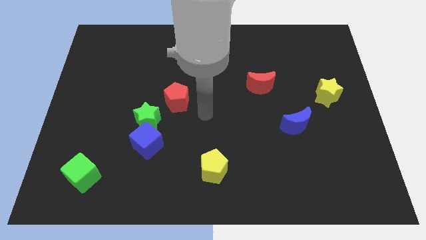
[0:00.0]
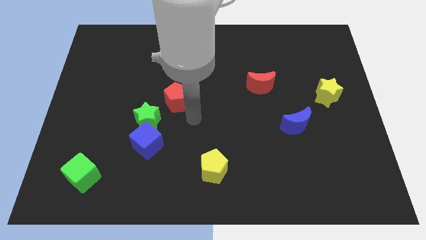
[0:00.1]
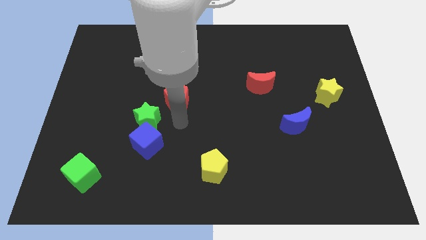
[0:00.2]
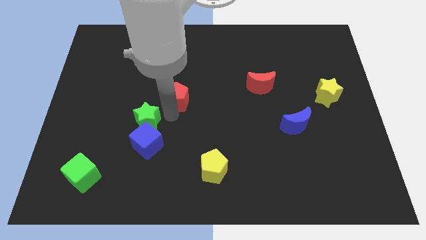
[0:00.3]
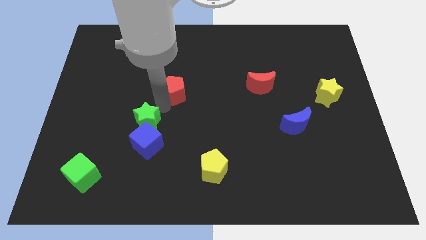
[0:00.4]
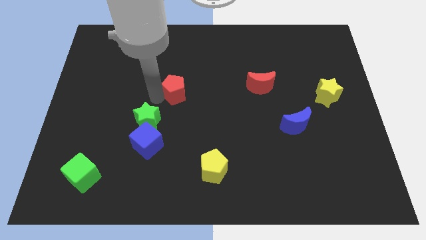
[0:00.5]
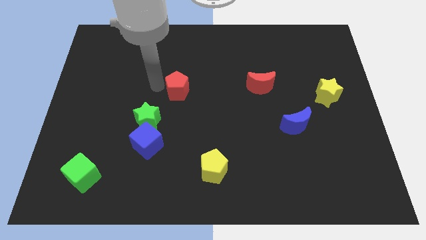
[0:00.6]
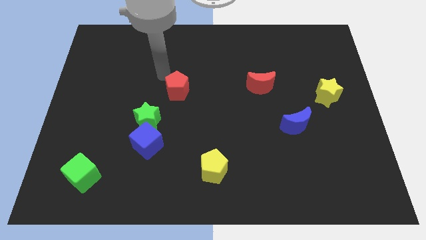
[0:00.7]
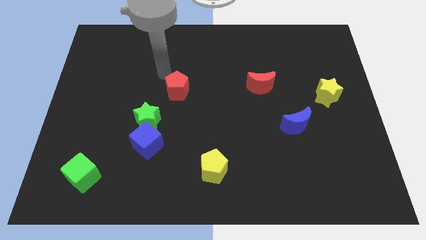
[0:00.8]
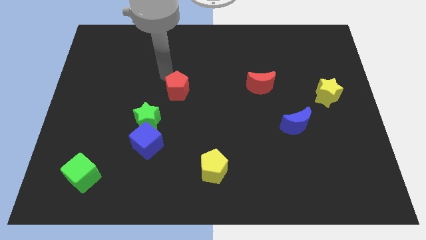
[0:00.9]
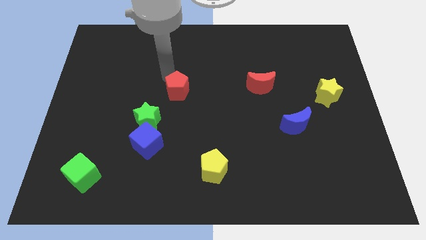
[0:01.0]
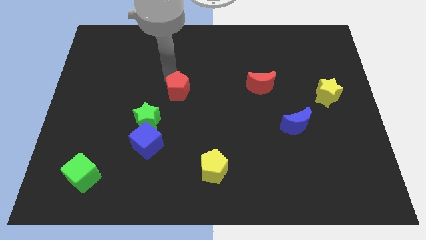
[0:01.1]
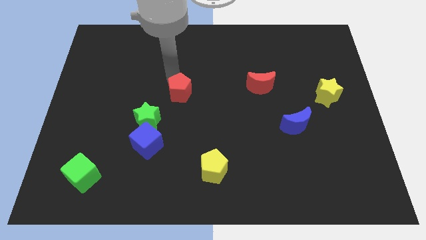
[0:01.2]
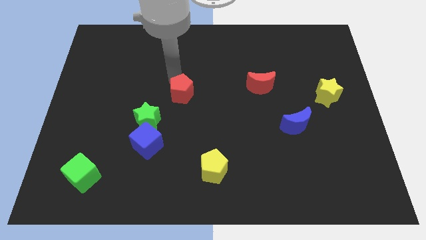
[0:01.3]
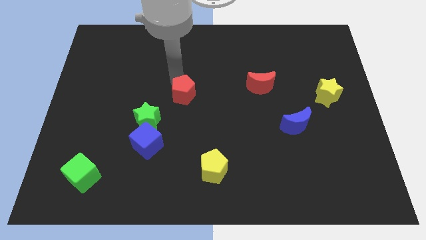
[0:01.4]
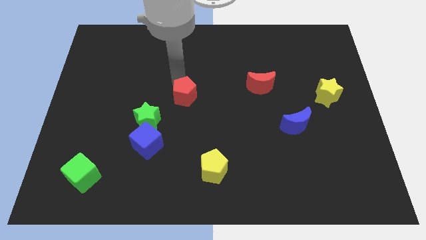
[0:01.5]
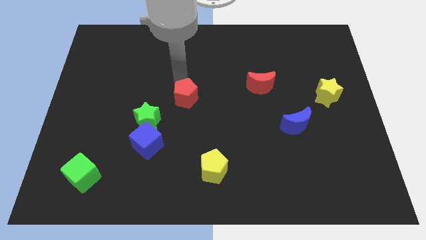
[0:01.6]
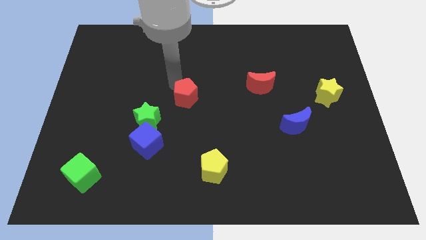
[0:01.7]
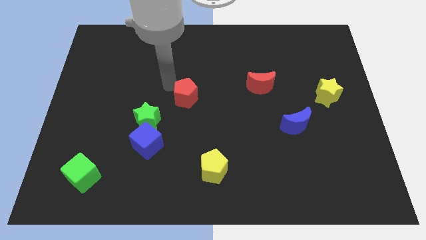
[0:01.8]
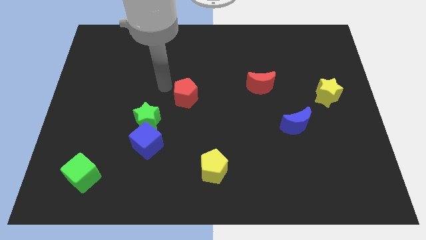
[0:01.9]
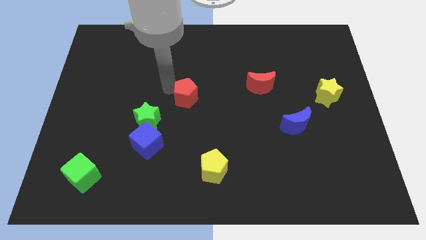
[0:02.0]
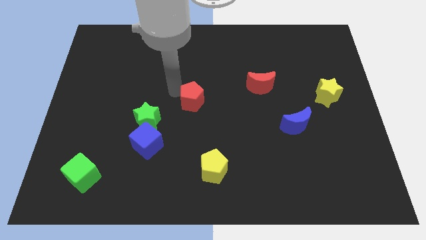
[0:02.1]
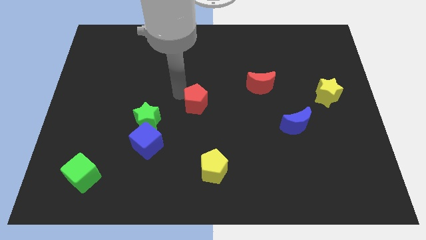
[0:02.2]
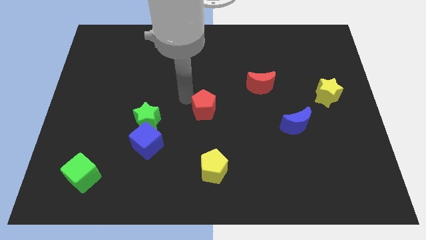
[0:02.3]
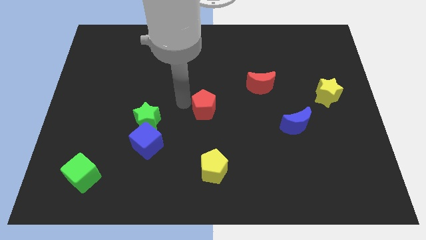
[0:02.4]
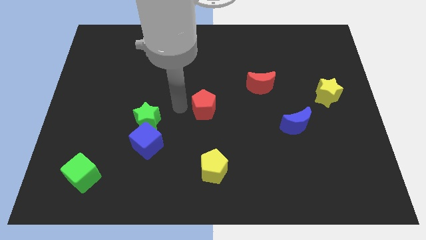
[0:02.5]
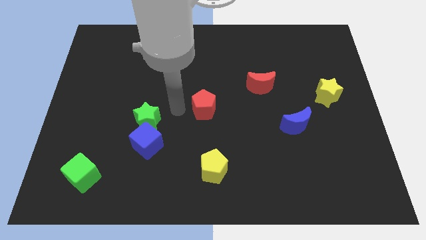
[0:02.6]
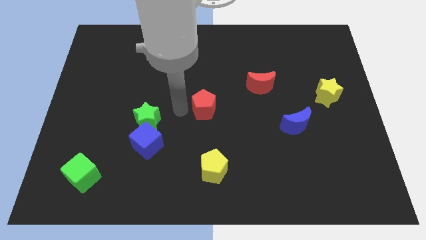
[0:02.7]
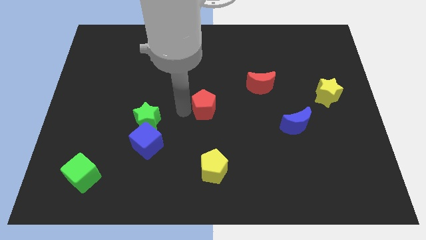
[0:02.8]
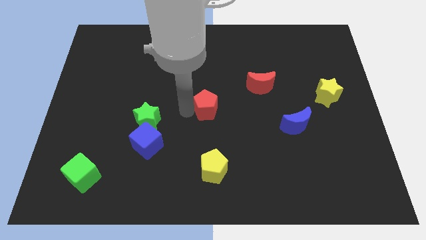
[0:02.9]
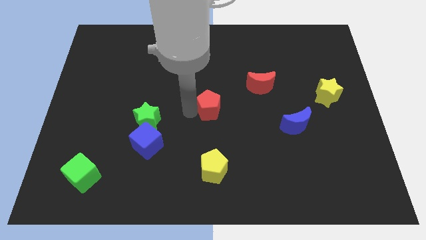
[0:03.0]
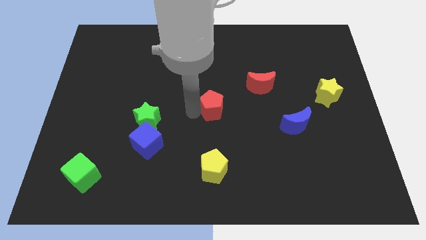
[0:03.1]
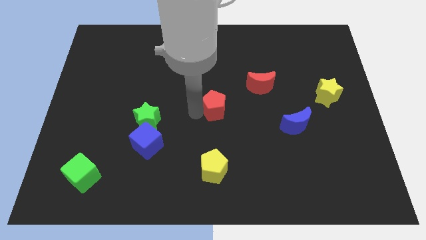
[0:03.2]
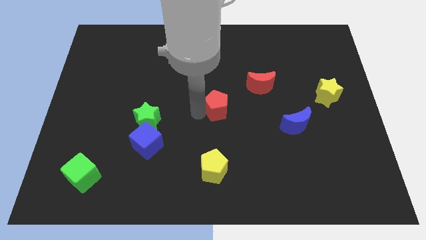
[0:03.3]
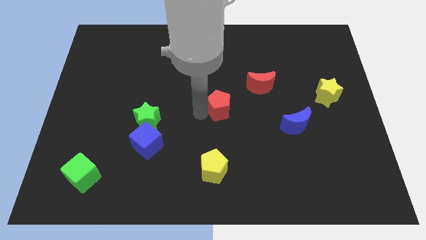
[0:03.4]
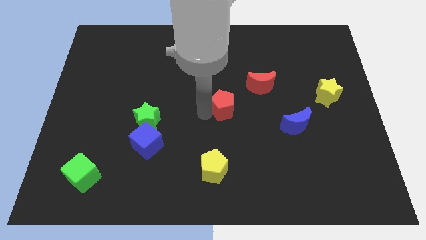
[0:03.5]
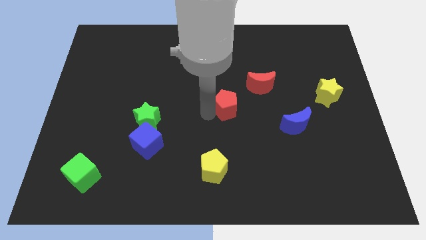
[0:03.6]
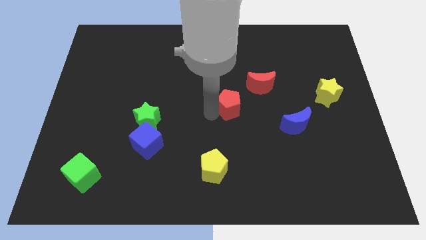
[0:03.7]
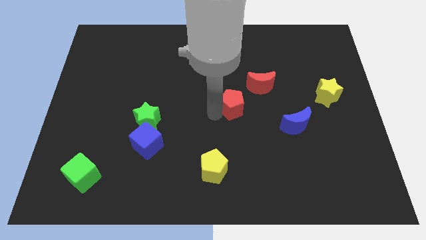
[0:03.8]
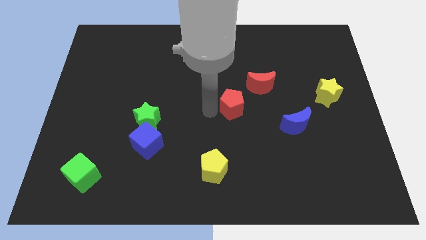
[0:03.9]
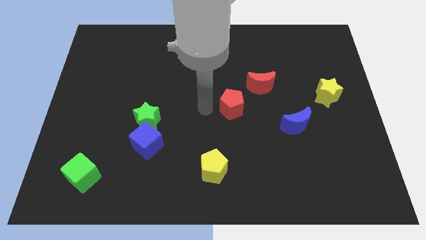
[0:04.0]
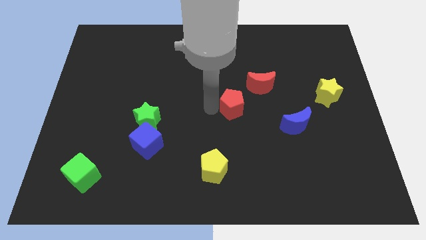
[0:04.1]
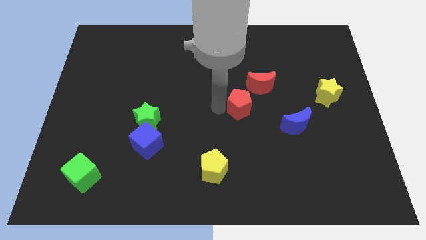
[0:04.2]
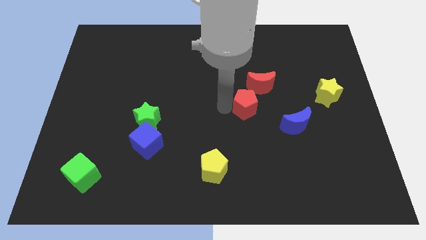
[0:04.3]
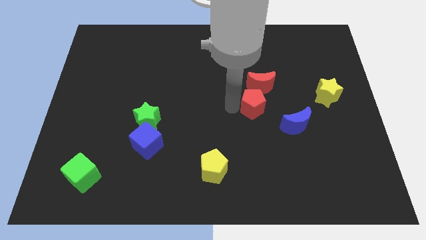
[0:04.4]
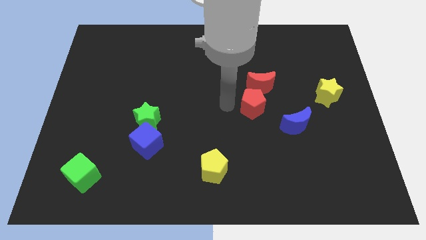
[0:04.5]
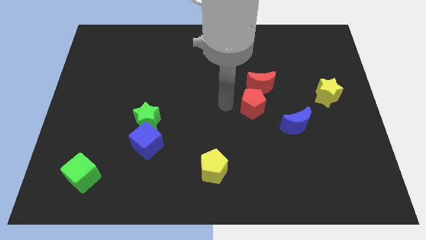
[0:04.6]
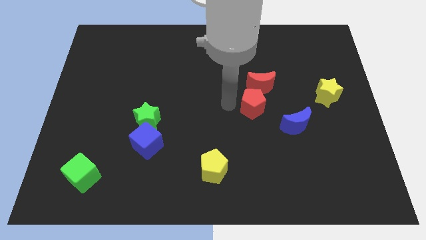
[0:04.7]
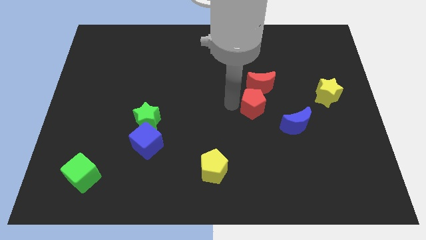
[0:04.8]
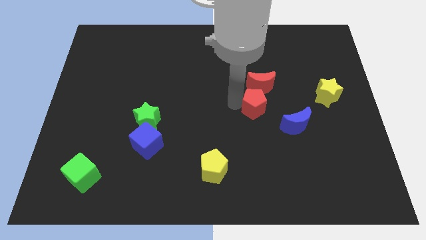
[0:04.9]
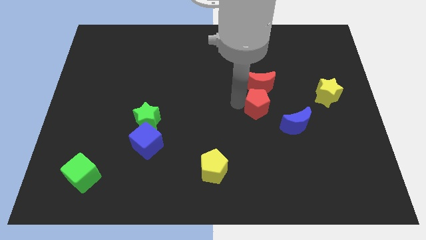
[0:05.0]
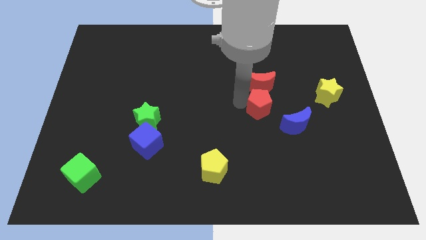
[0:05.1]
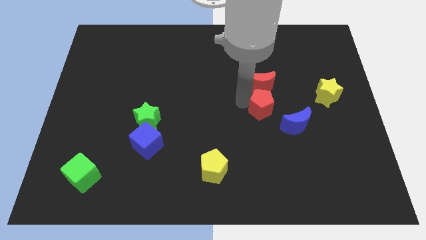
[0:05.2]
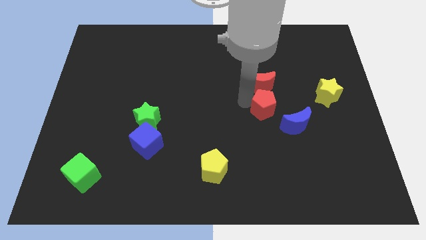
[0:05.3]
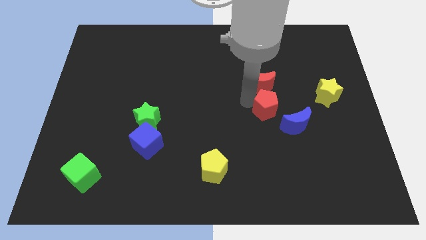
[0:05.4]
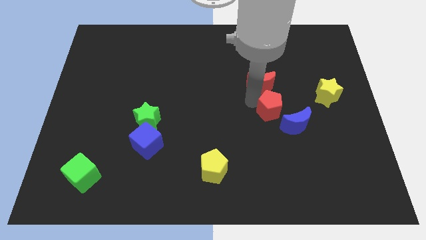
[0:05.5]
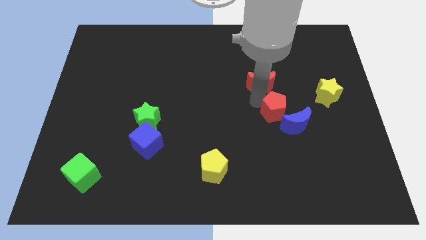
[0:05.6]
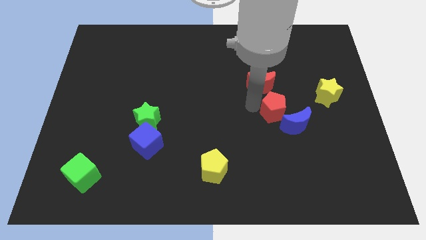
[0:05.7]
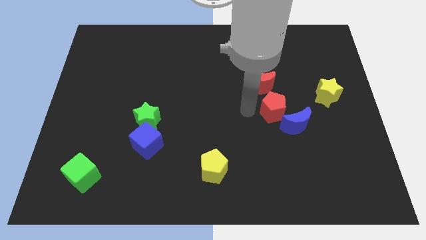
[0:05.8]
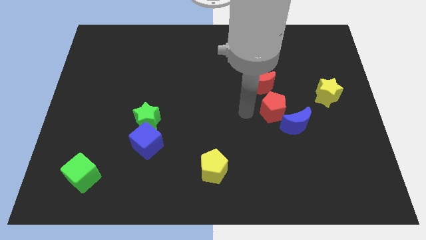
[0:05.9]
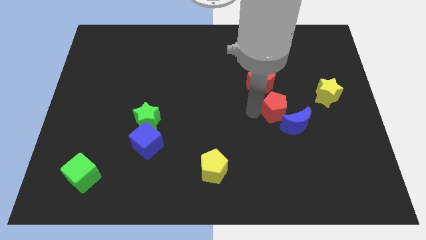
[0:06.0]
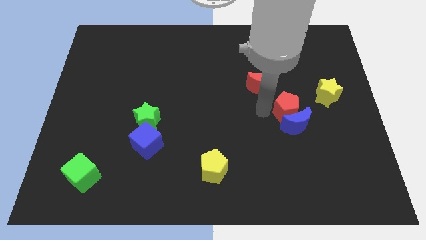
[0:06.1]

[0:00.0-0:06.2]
push the red pentagon to the top right side of the blue moon
